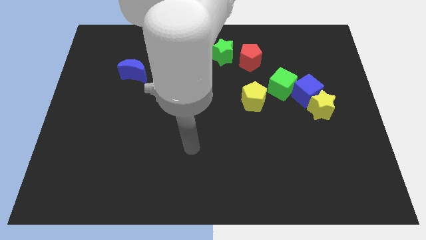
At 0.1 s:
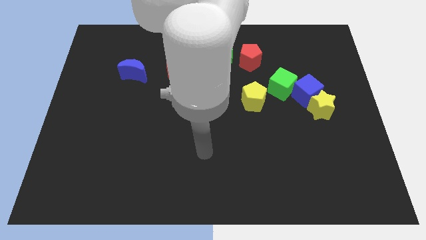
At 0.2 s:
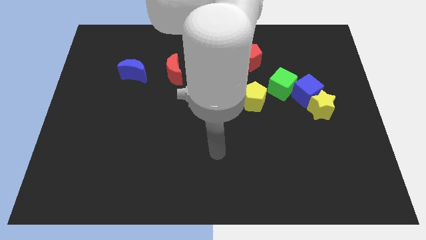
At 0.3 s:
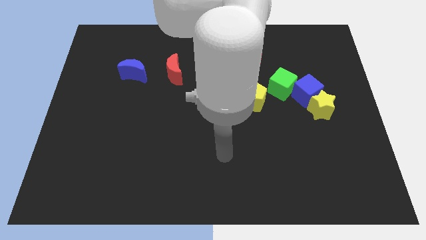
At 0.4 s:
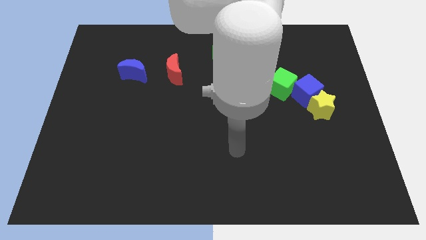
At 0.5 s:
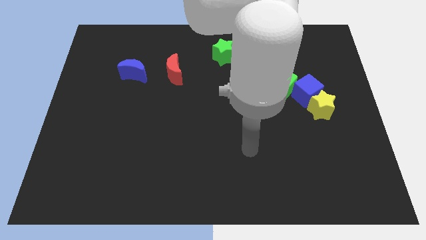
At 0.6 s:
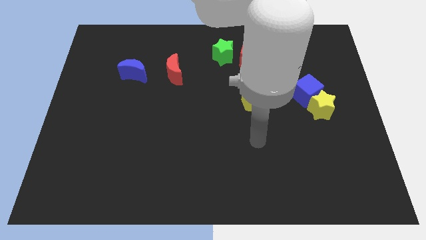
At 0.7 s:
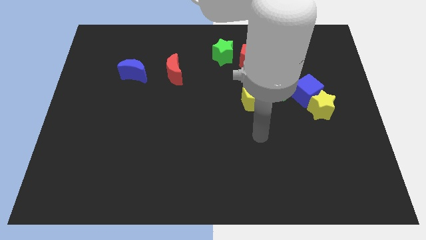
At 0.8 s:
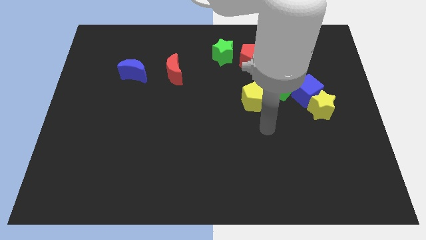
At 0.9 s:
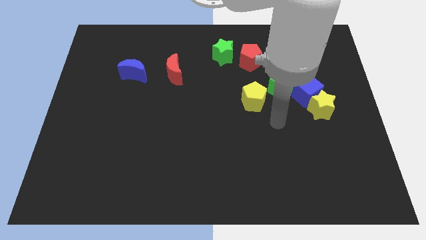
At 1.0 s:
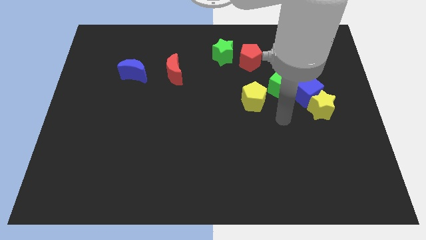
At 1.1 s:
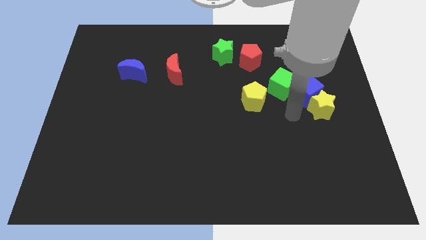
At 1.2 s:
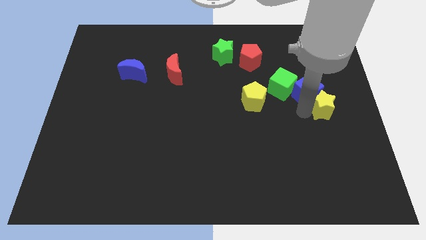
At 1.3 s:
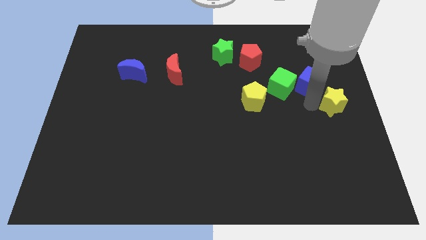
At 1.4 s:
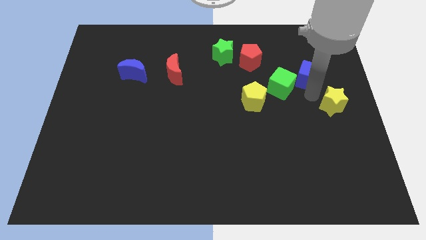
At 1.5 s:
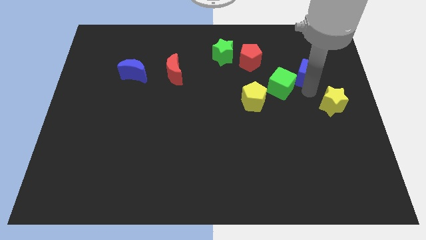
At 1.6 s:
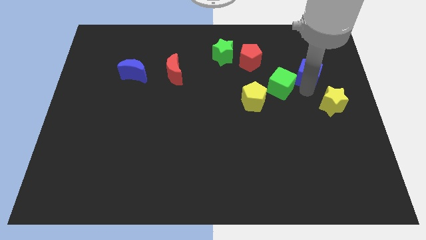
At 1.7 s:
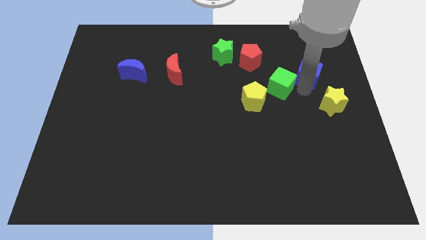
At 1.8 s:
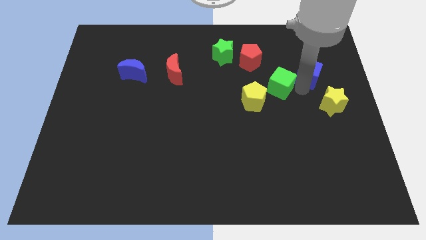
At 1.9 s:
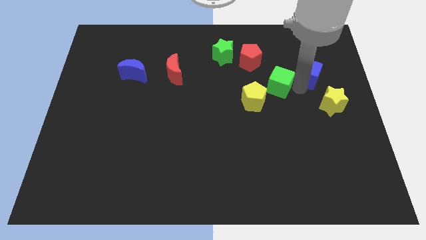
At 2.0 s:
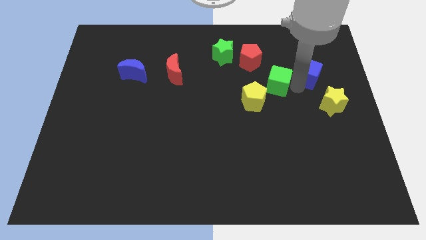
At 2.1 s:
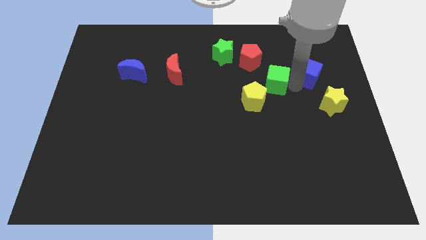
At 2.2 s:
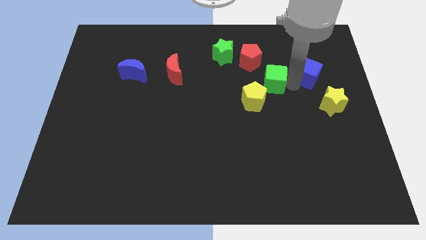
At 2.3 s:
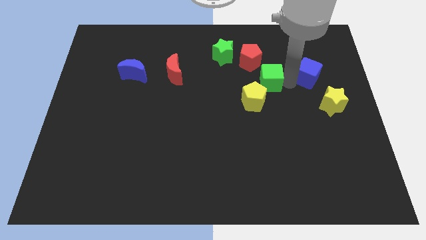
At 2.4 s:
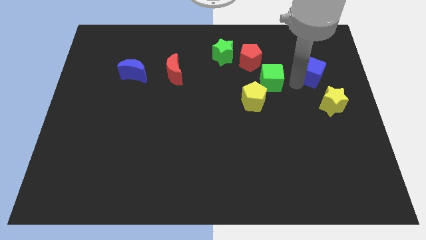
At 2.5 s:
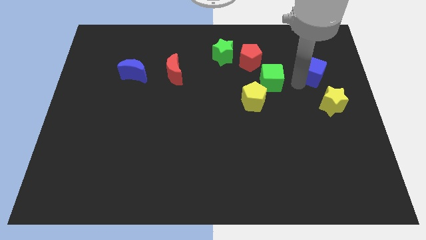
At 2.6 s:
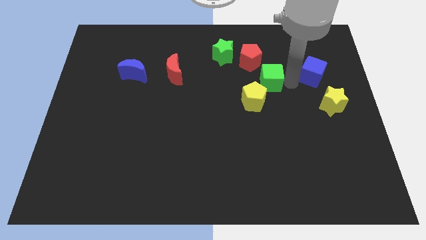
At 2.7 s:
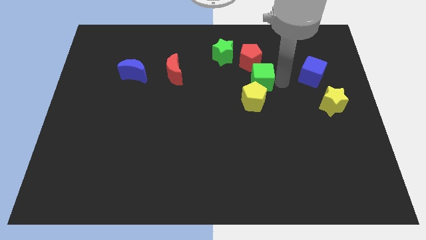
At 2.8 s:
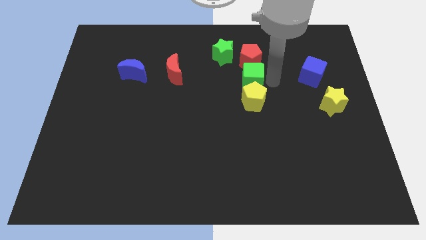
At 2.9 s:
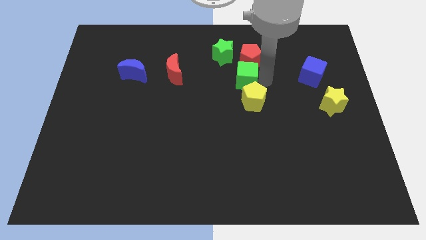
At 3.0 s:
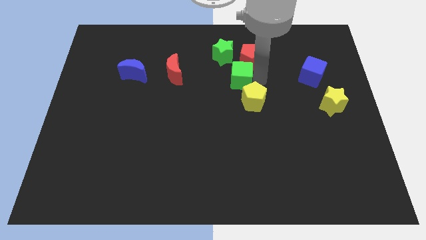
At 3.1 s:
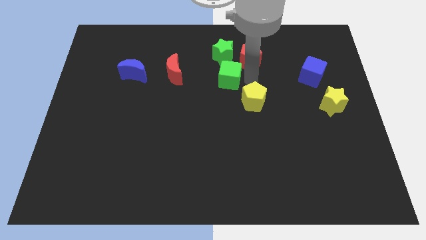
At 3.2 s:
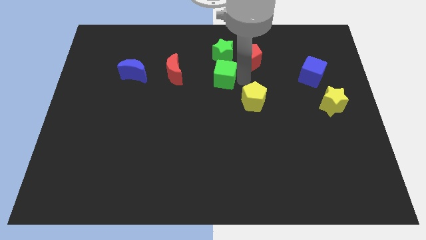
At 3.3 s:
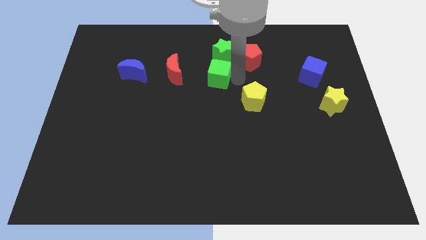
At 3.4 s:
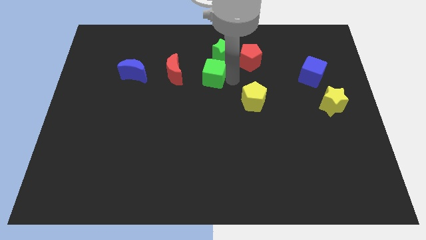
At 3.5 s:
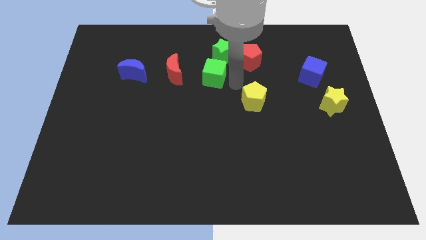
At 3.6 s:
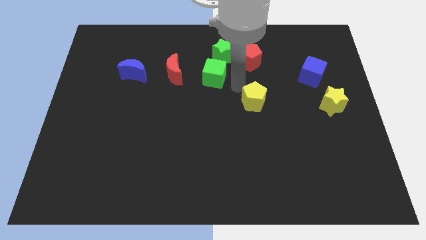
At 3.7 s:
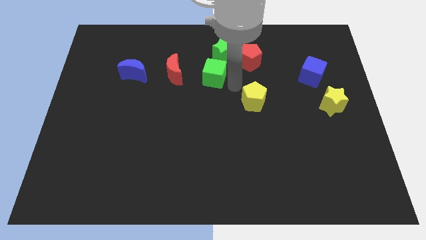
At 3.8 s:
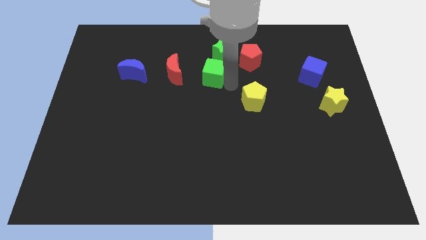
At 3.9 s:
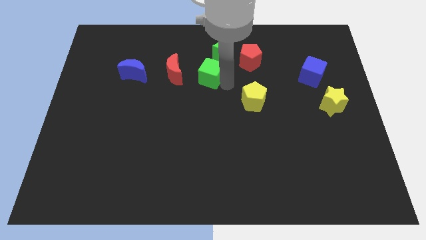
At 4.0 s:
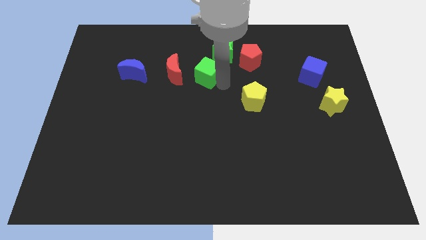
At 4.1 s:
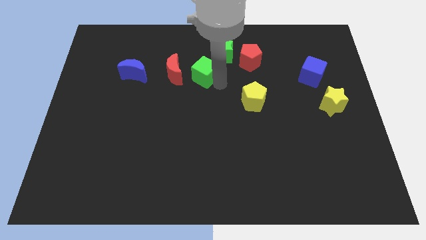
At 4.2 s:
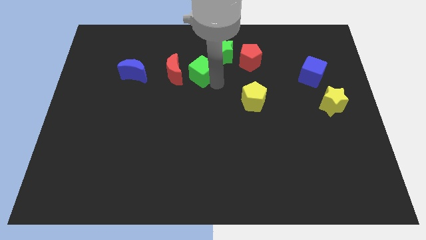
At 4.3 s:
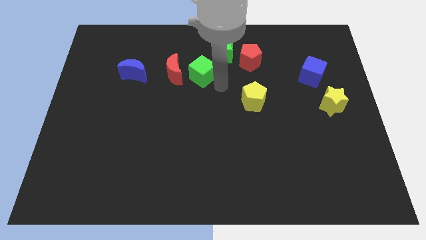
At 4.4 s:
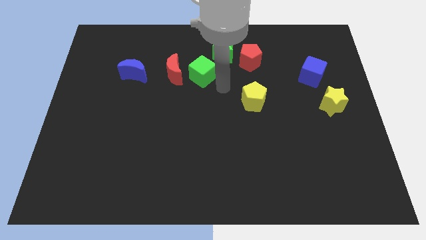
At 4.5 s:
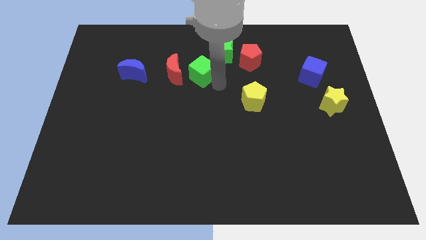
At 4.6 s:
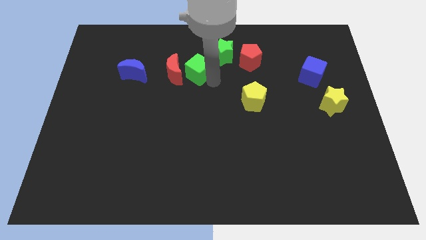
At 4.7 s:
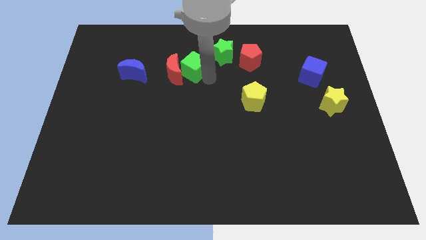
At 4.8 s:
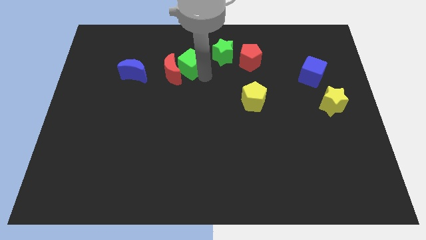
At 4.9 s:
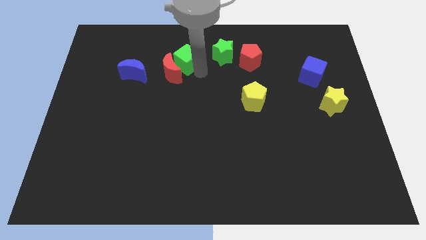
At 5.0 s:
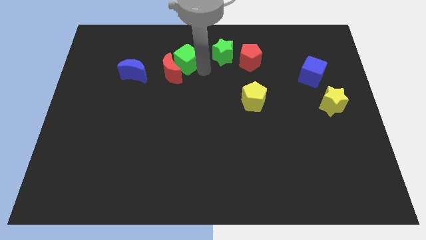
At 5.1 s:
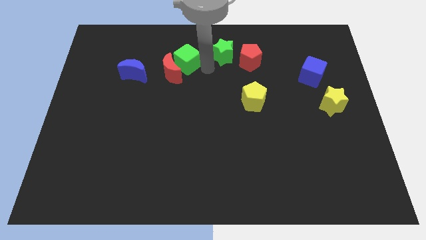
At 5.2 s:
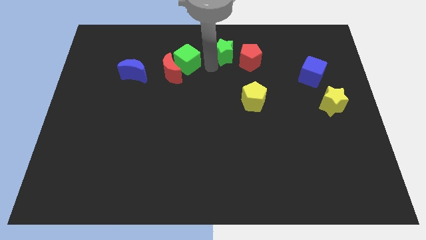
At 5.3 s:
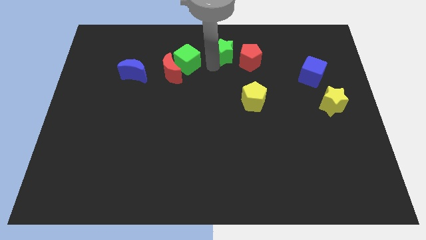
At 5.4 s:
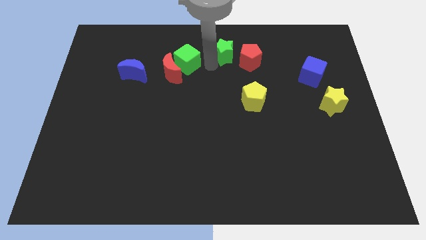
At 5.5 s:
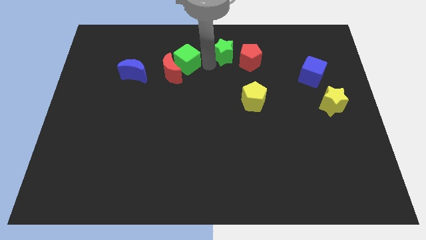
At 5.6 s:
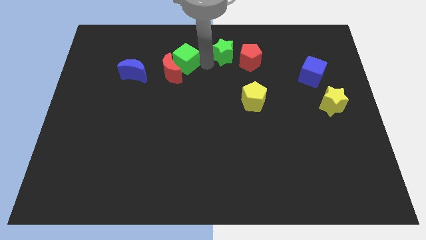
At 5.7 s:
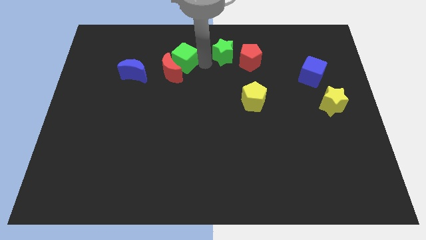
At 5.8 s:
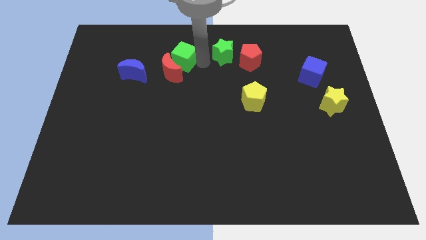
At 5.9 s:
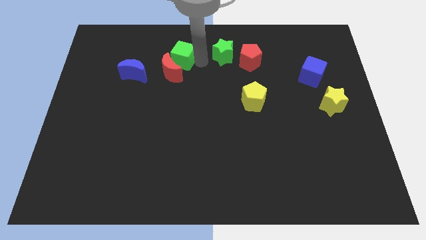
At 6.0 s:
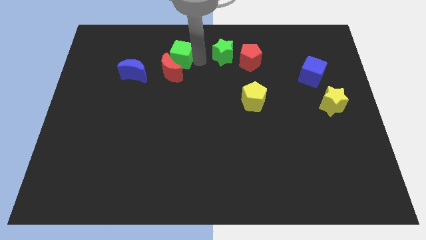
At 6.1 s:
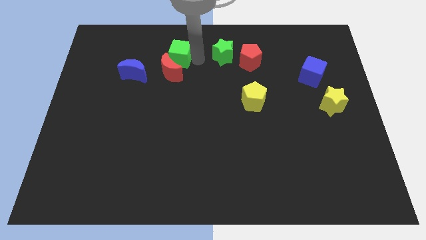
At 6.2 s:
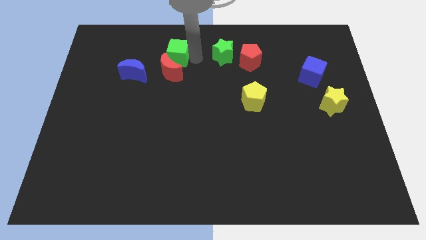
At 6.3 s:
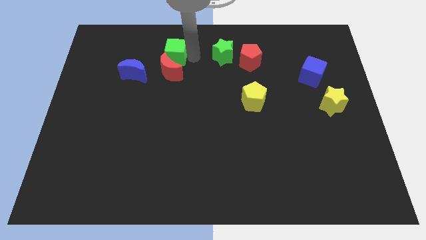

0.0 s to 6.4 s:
push the green cube to the top right of the blue moon

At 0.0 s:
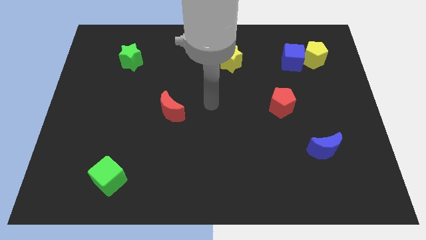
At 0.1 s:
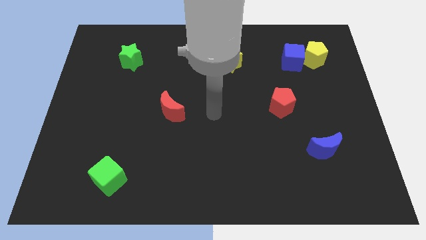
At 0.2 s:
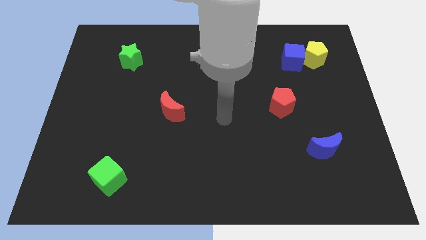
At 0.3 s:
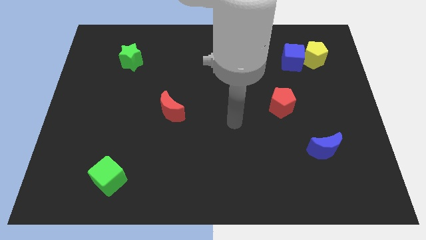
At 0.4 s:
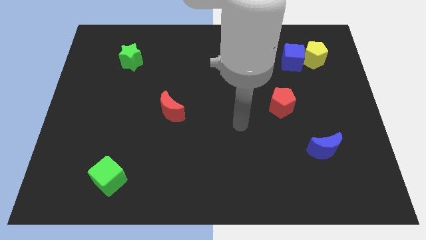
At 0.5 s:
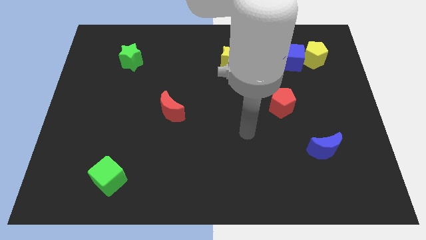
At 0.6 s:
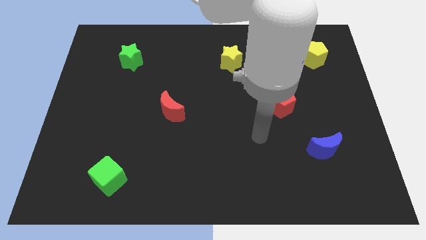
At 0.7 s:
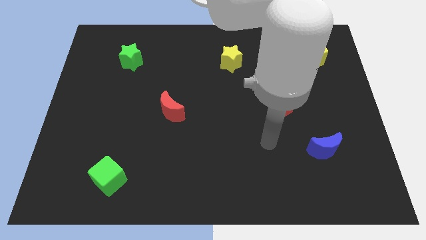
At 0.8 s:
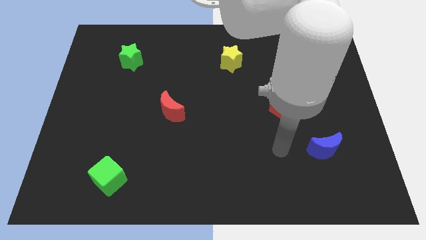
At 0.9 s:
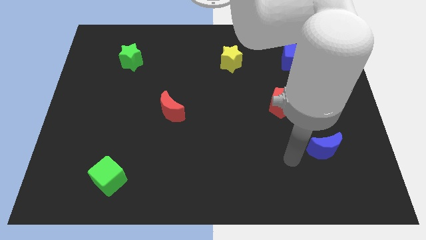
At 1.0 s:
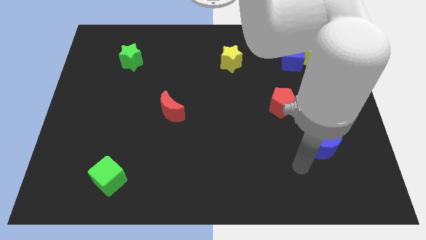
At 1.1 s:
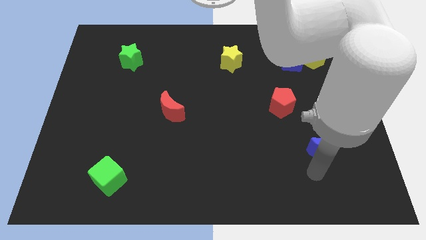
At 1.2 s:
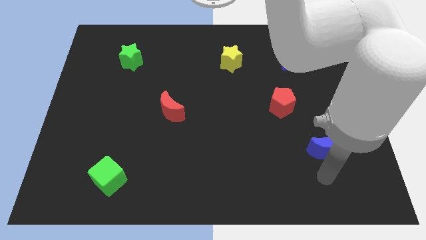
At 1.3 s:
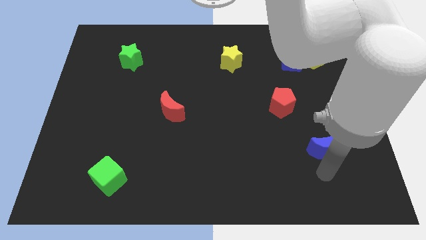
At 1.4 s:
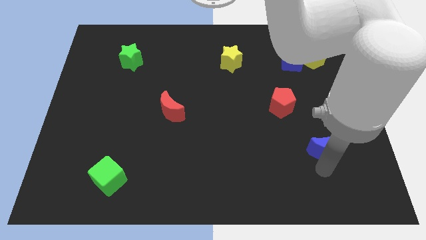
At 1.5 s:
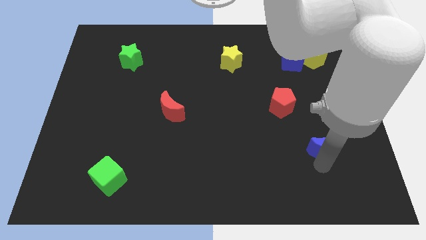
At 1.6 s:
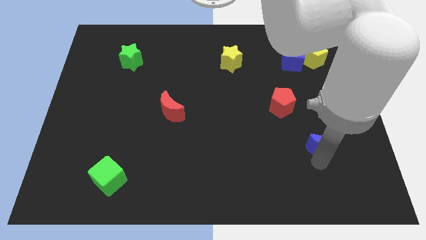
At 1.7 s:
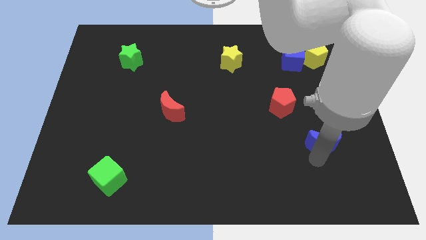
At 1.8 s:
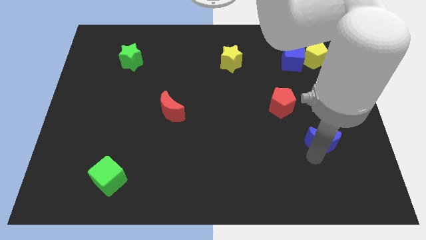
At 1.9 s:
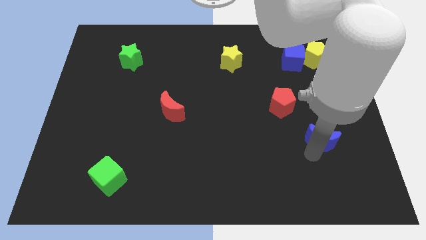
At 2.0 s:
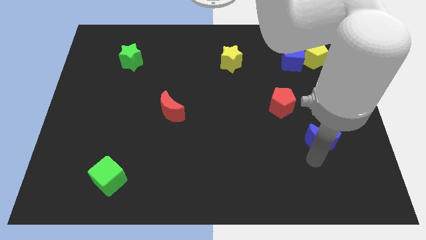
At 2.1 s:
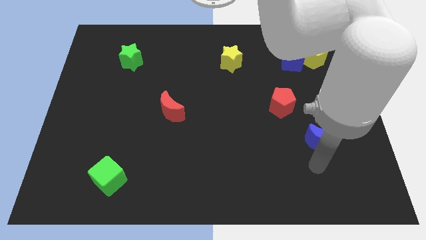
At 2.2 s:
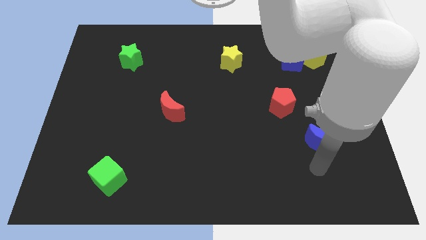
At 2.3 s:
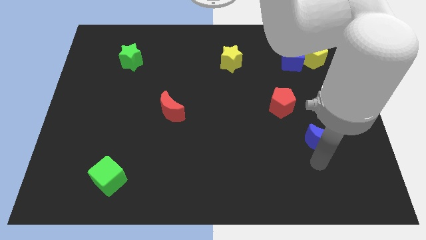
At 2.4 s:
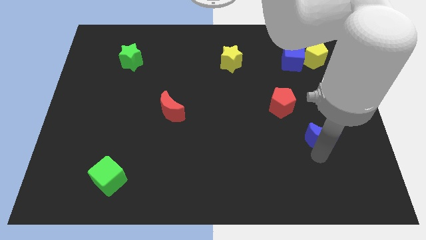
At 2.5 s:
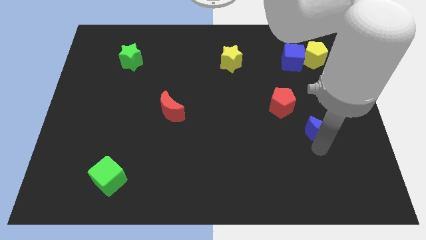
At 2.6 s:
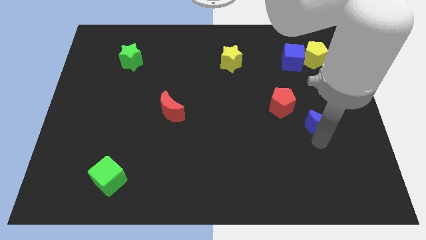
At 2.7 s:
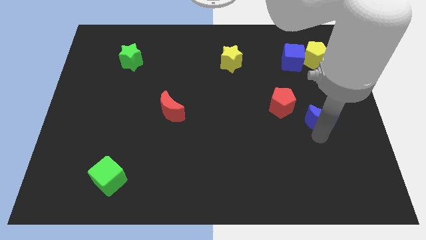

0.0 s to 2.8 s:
move the blue moon just right of the red pentagon
